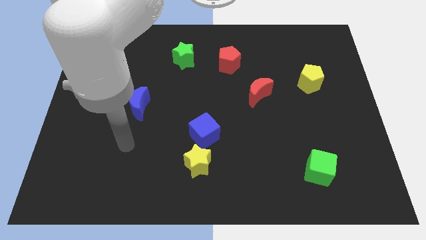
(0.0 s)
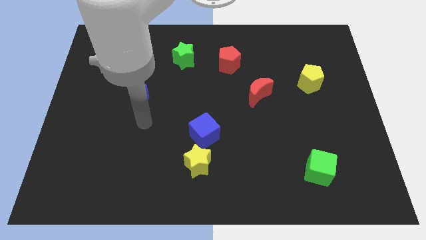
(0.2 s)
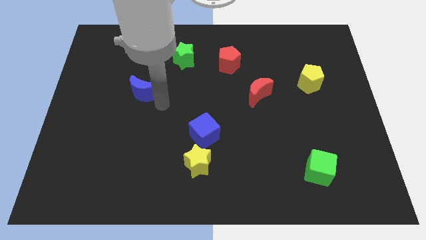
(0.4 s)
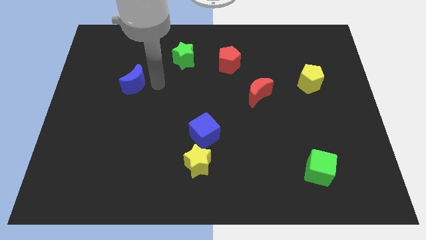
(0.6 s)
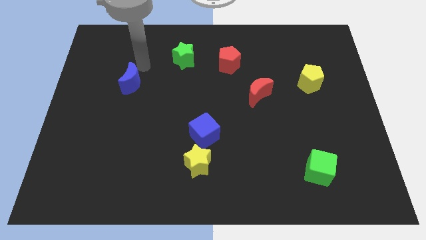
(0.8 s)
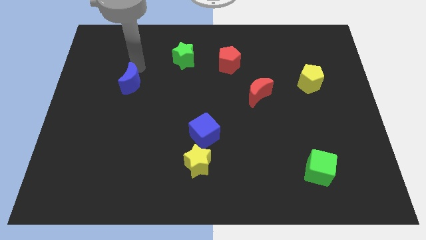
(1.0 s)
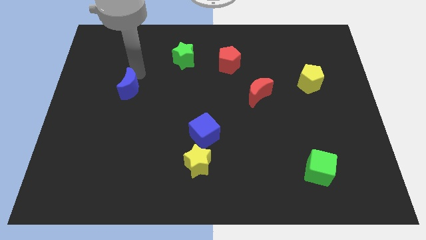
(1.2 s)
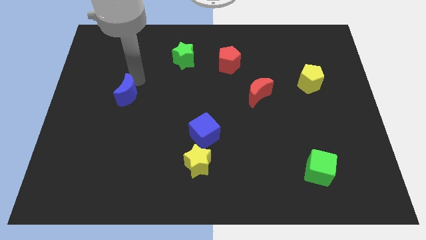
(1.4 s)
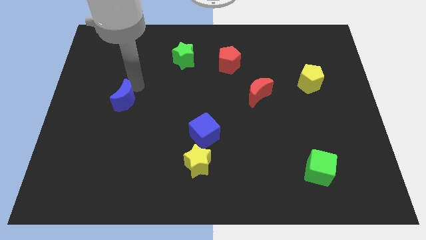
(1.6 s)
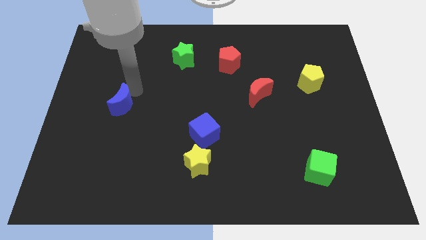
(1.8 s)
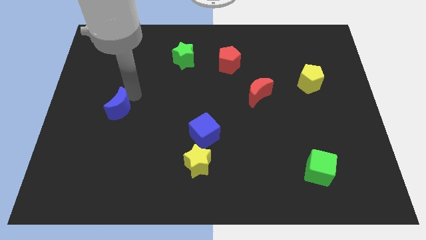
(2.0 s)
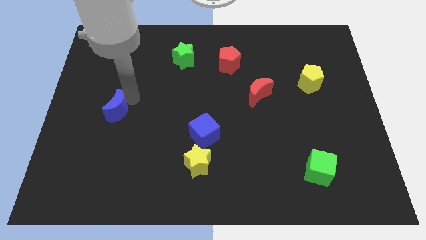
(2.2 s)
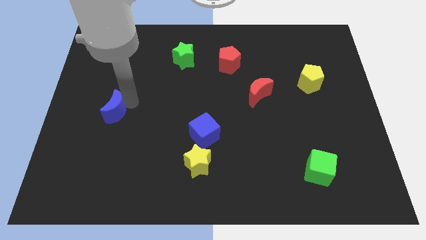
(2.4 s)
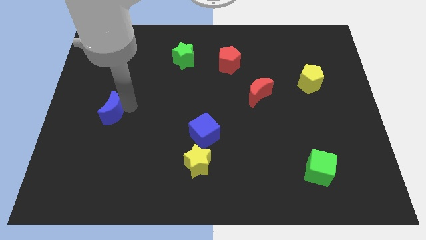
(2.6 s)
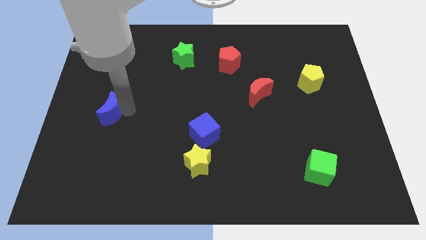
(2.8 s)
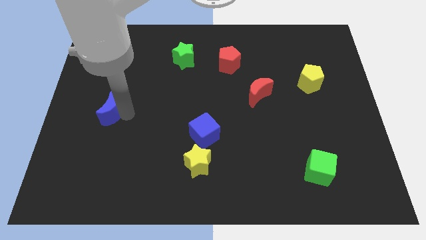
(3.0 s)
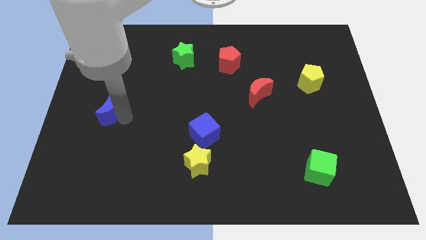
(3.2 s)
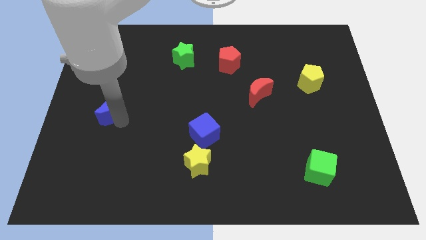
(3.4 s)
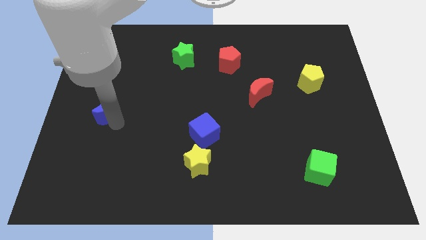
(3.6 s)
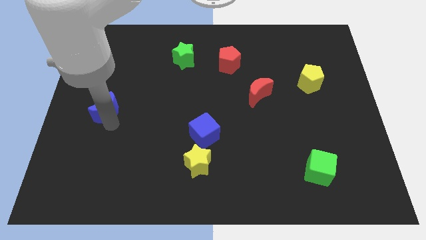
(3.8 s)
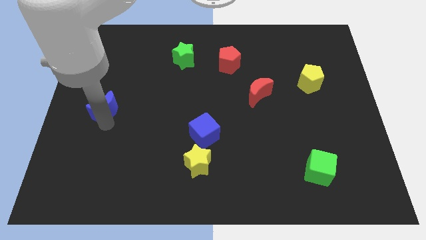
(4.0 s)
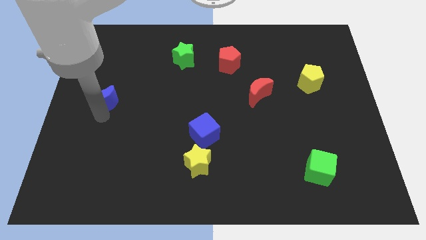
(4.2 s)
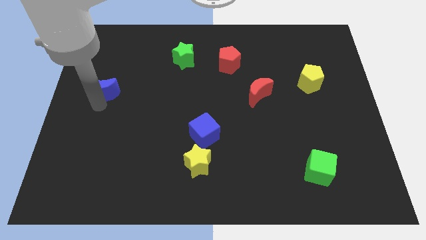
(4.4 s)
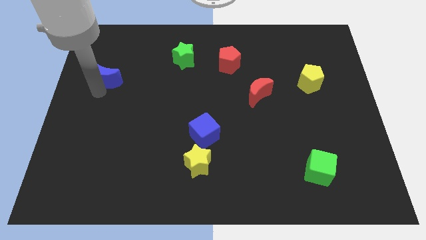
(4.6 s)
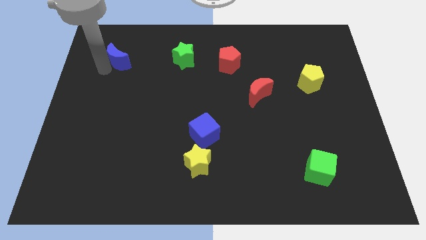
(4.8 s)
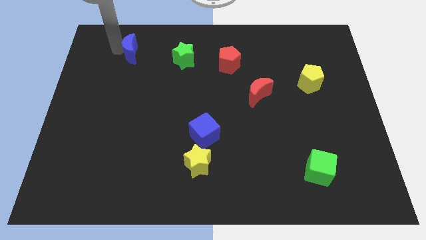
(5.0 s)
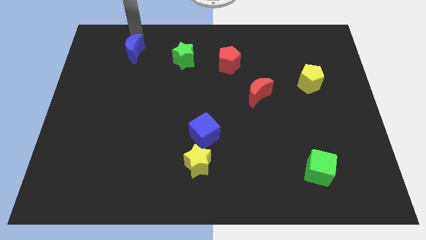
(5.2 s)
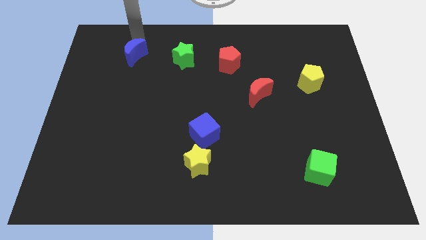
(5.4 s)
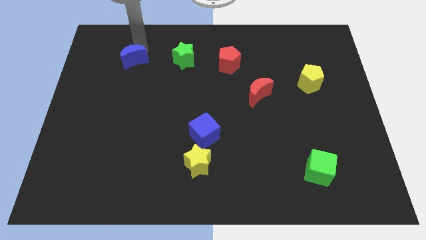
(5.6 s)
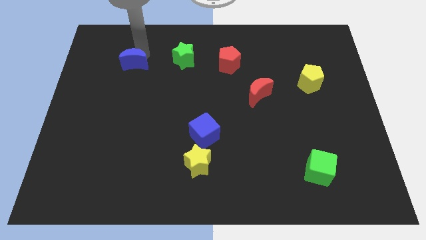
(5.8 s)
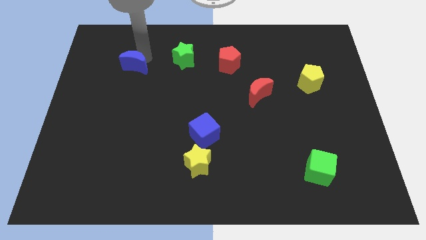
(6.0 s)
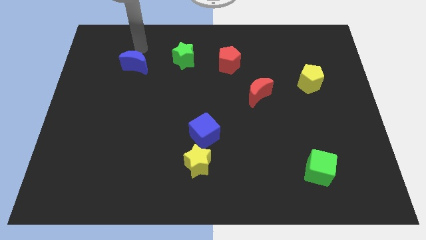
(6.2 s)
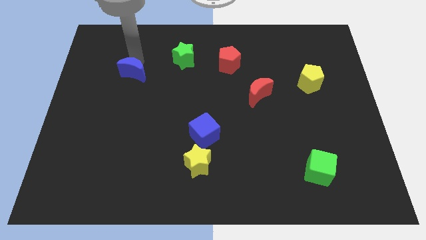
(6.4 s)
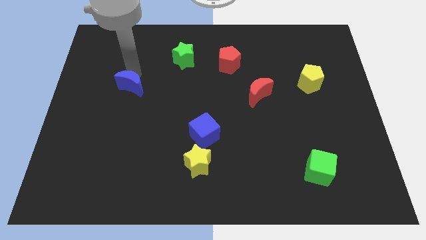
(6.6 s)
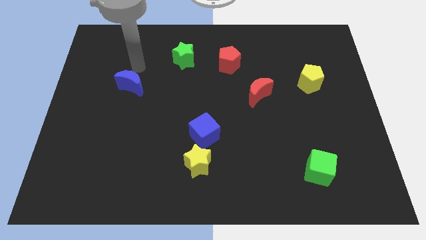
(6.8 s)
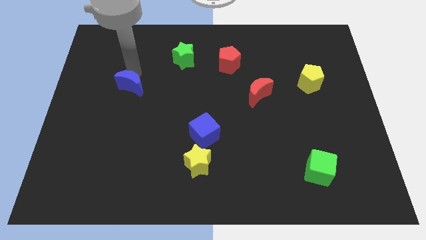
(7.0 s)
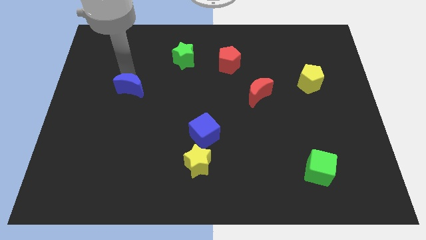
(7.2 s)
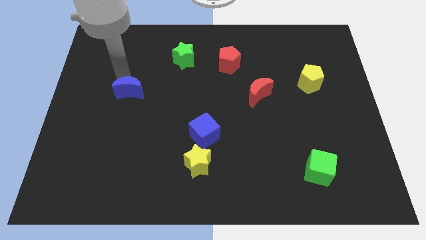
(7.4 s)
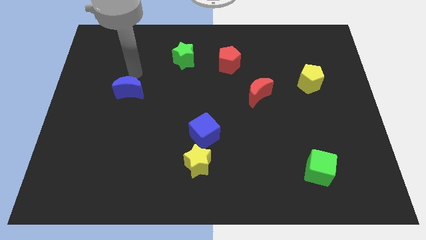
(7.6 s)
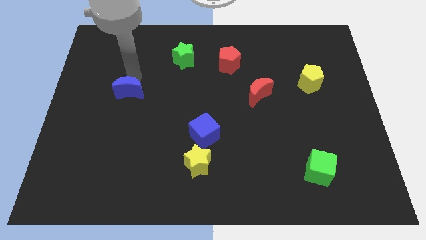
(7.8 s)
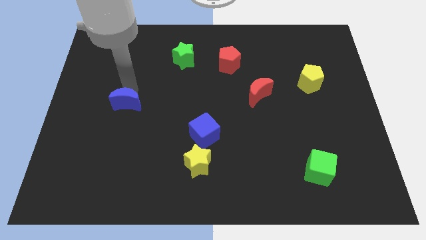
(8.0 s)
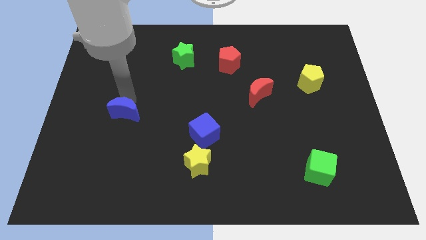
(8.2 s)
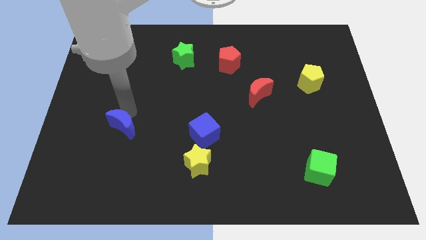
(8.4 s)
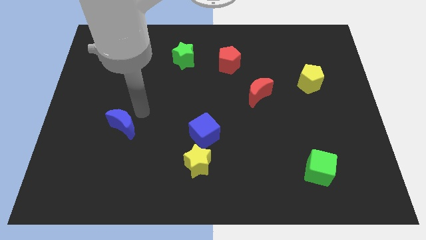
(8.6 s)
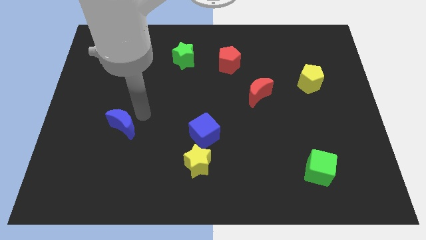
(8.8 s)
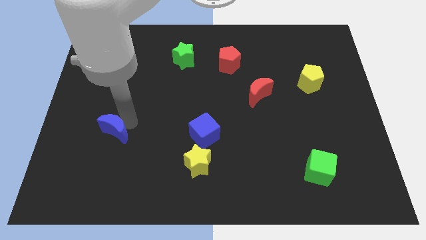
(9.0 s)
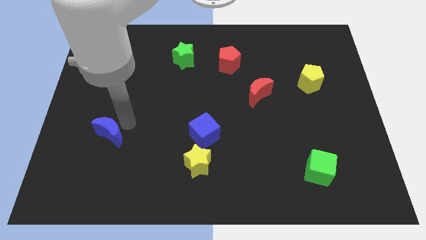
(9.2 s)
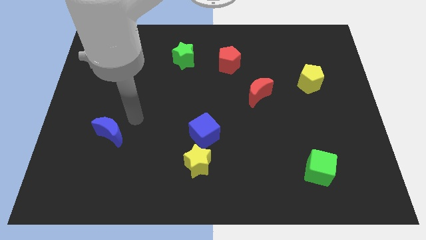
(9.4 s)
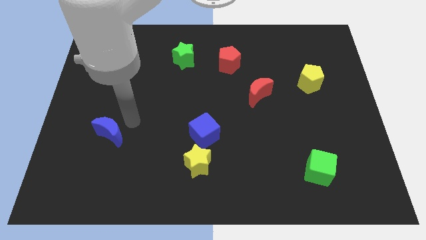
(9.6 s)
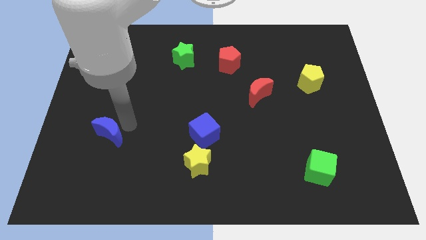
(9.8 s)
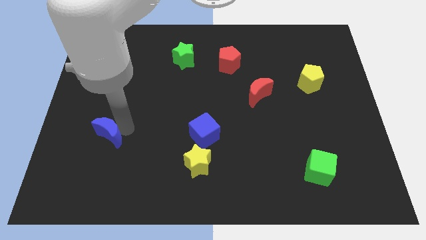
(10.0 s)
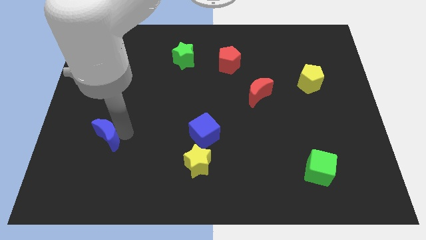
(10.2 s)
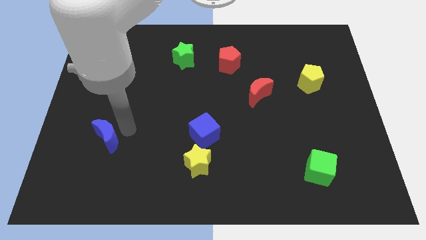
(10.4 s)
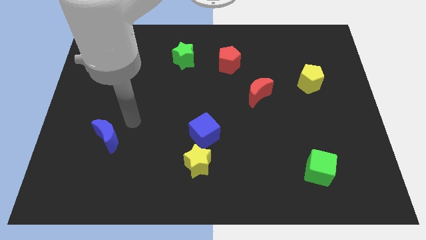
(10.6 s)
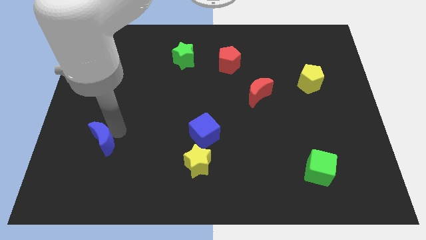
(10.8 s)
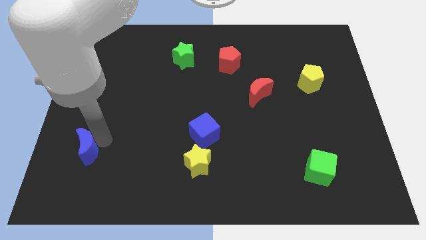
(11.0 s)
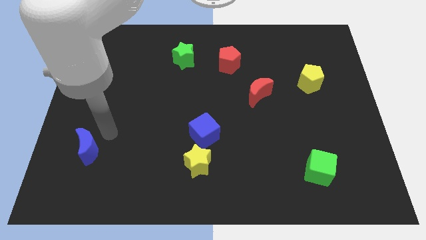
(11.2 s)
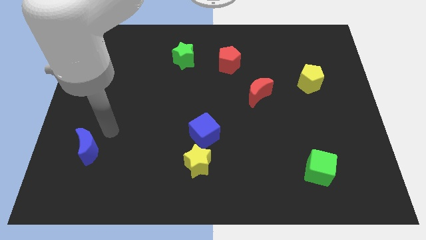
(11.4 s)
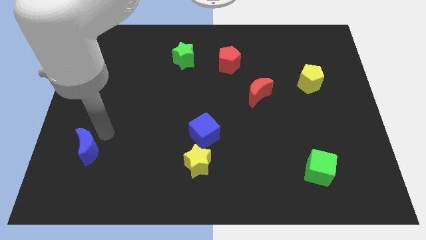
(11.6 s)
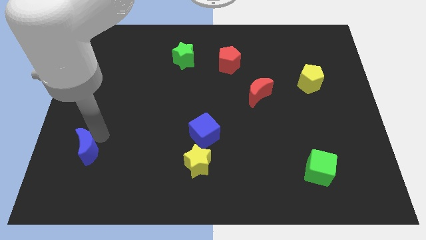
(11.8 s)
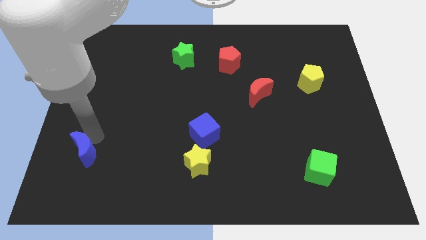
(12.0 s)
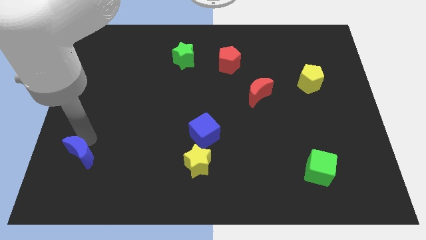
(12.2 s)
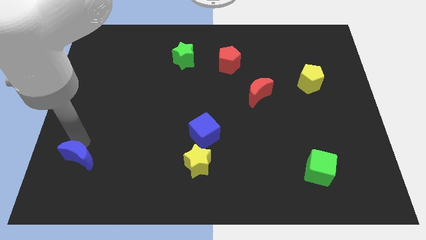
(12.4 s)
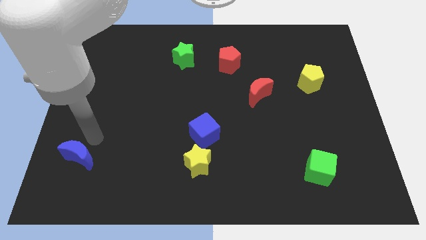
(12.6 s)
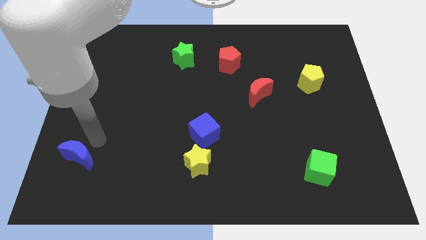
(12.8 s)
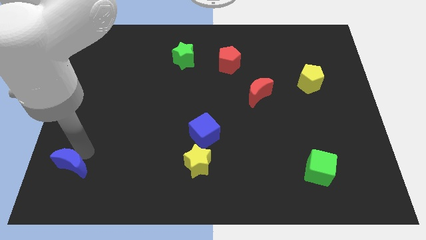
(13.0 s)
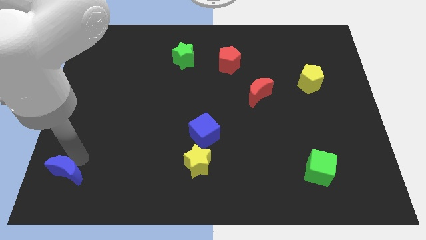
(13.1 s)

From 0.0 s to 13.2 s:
slide the blue moon to the bottom left corner
